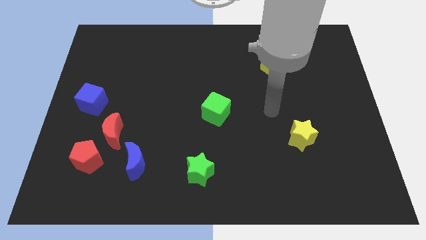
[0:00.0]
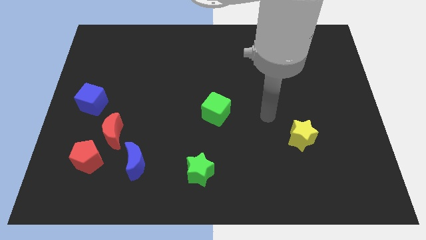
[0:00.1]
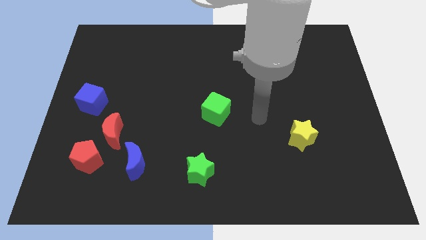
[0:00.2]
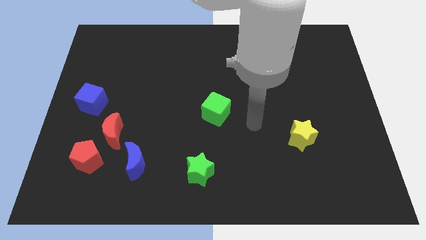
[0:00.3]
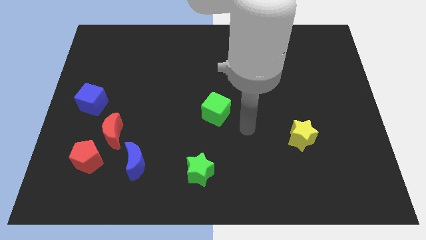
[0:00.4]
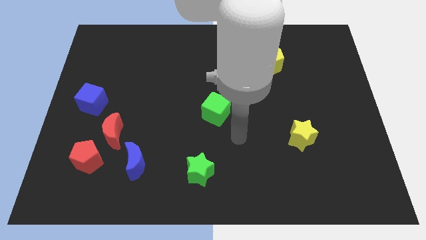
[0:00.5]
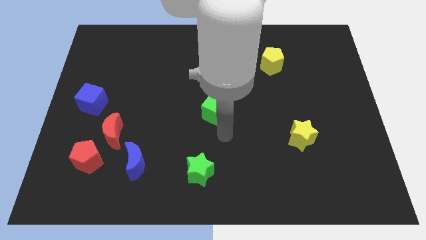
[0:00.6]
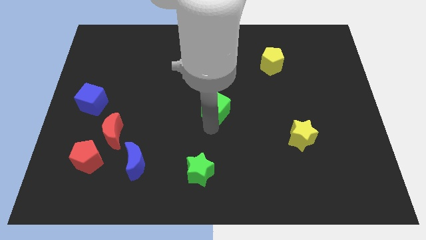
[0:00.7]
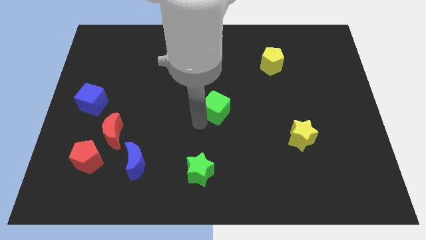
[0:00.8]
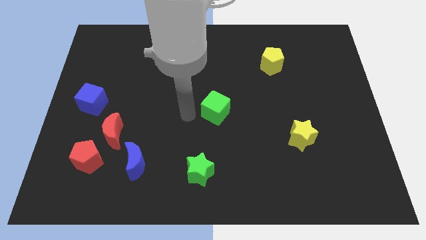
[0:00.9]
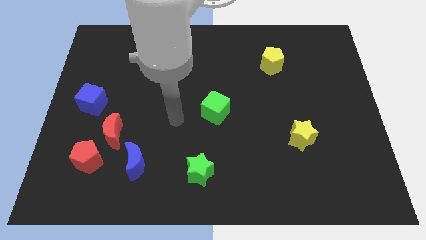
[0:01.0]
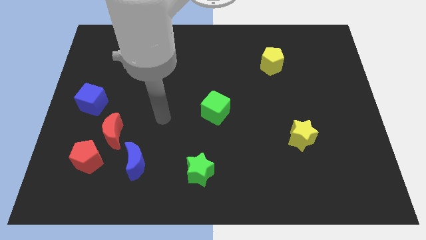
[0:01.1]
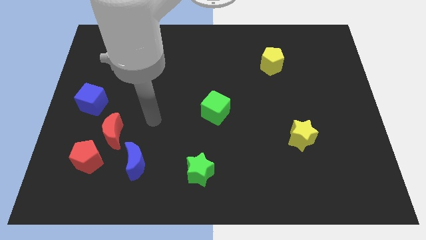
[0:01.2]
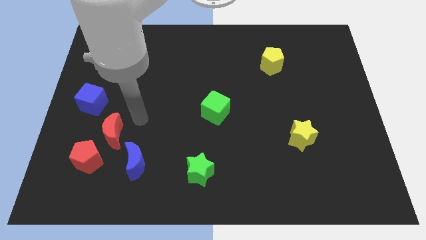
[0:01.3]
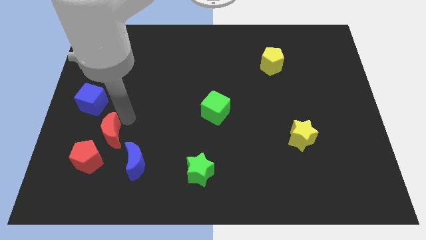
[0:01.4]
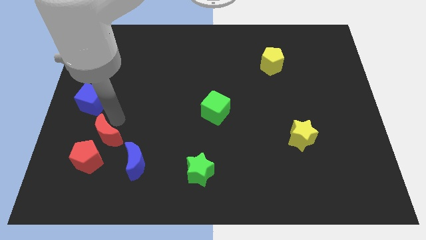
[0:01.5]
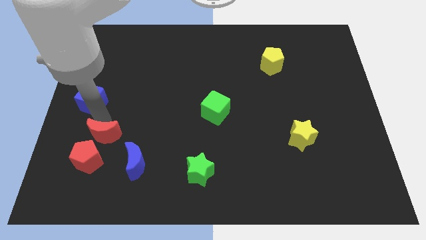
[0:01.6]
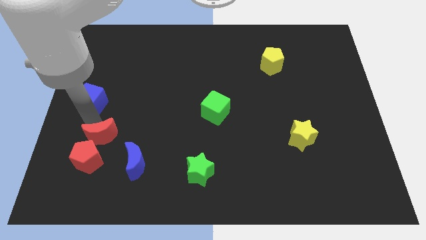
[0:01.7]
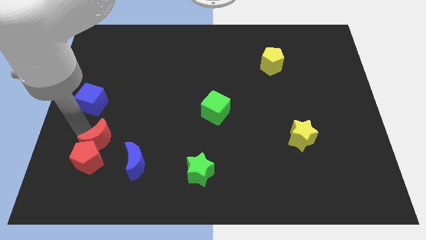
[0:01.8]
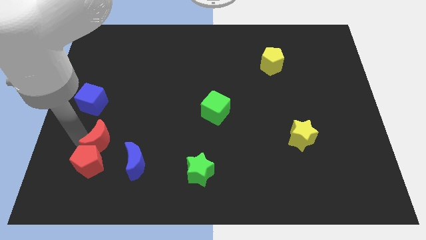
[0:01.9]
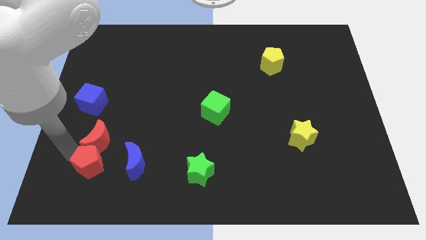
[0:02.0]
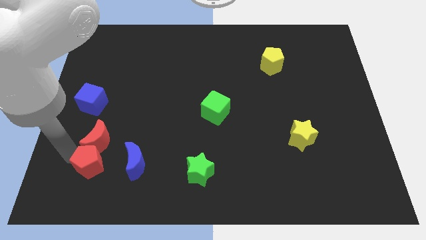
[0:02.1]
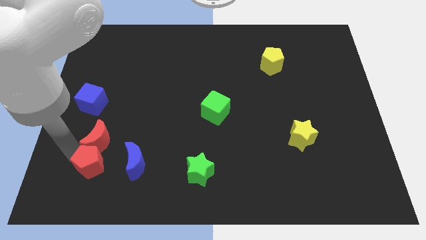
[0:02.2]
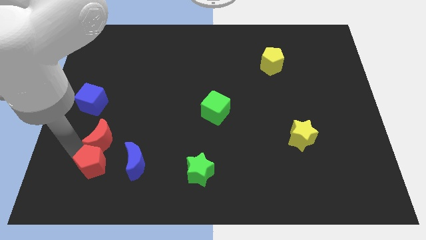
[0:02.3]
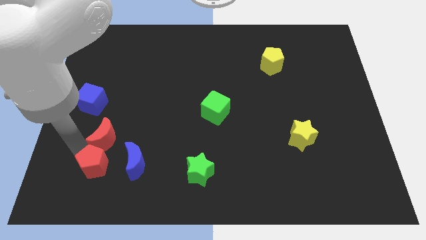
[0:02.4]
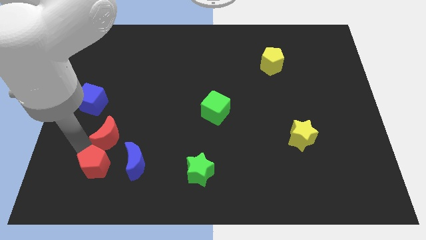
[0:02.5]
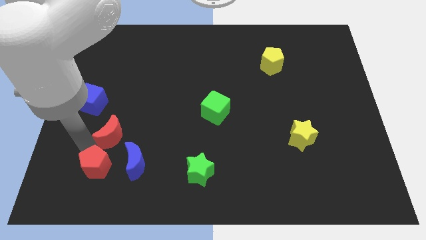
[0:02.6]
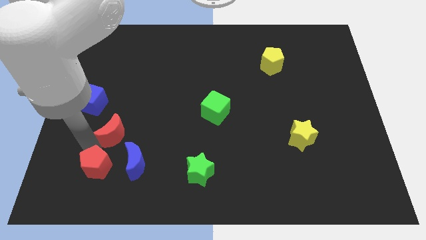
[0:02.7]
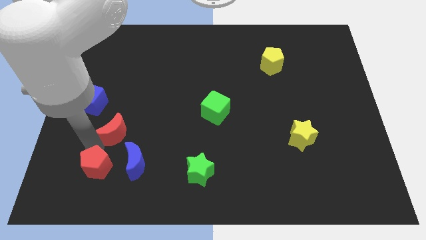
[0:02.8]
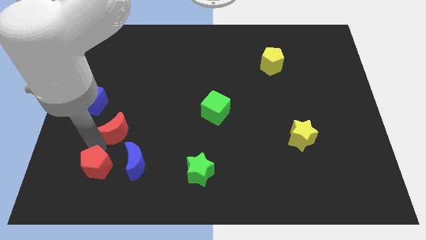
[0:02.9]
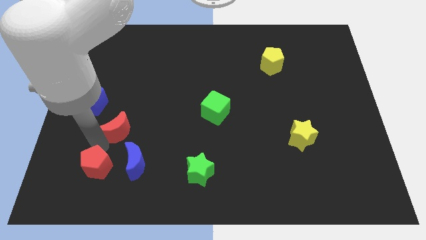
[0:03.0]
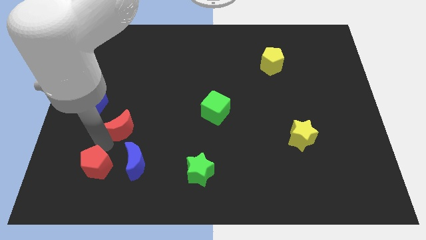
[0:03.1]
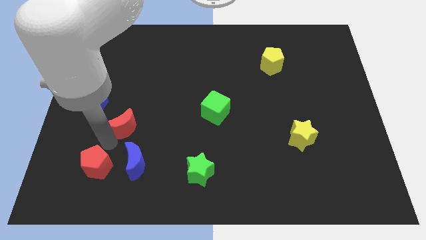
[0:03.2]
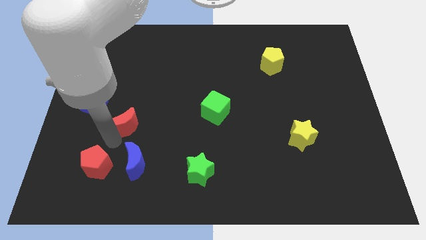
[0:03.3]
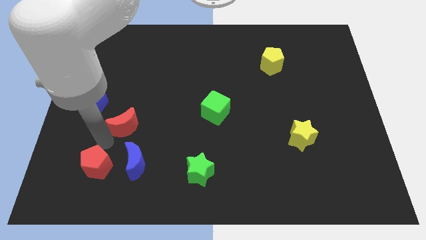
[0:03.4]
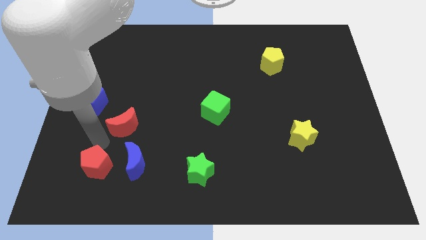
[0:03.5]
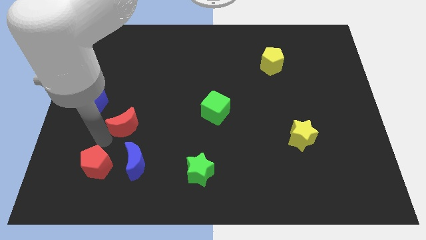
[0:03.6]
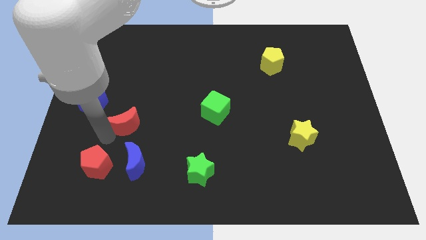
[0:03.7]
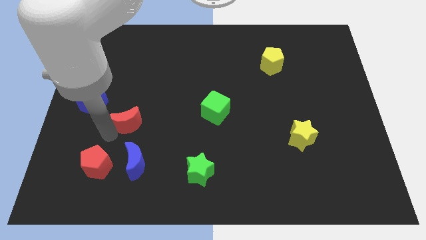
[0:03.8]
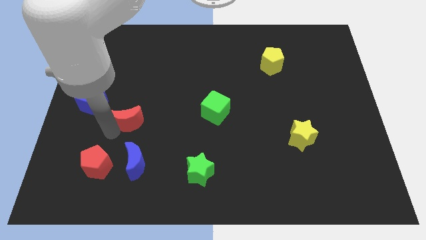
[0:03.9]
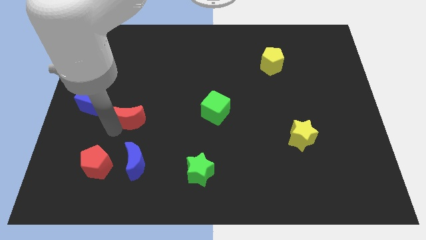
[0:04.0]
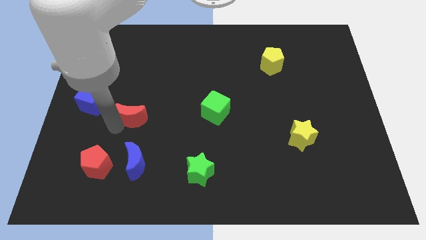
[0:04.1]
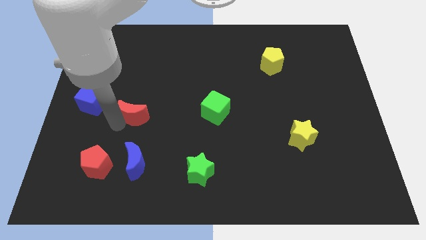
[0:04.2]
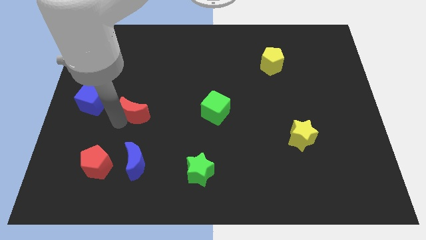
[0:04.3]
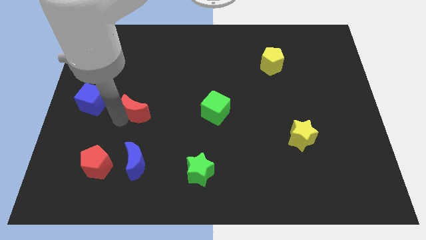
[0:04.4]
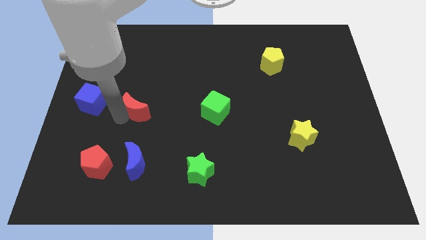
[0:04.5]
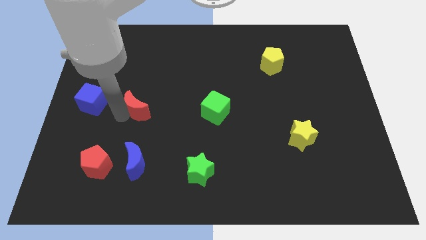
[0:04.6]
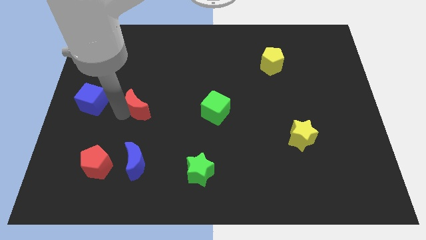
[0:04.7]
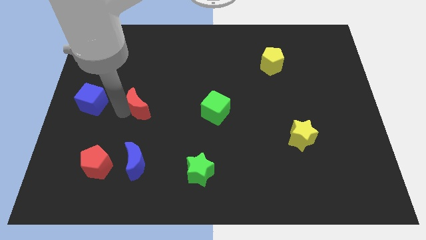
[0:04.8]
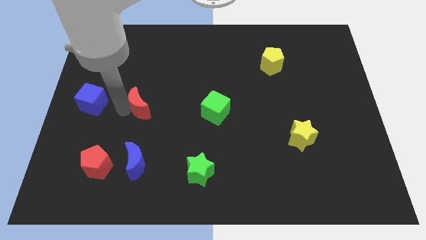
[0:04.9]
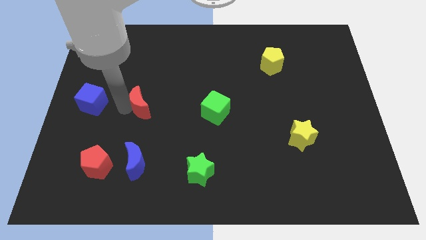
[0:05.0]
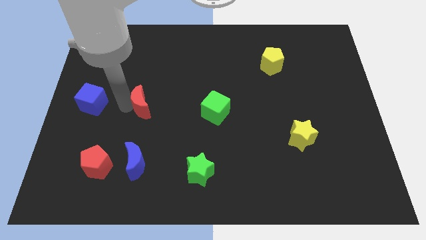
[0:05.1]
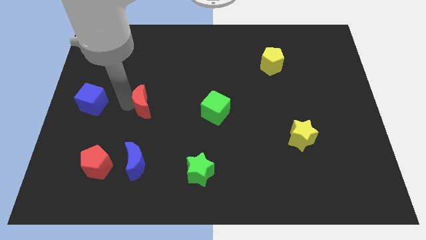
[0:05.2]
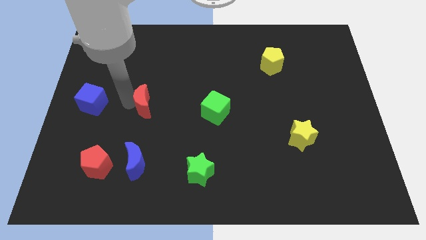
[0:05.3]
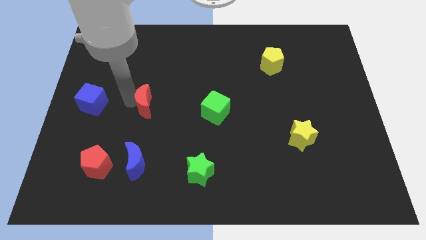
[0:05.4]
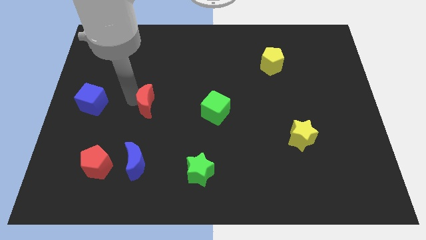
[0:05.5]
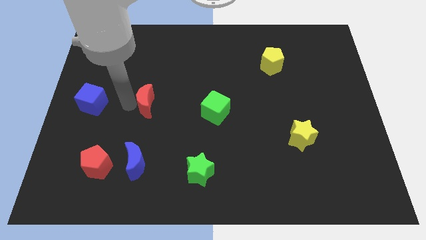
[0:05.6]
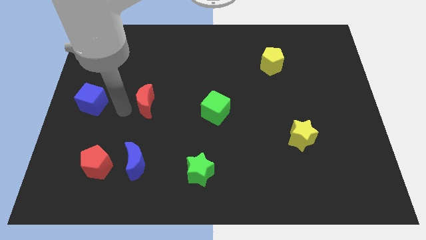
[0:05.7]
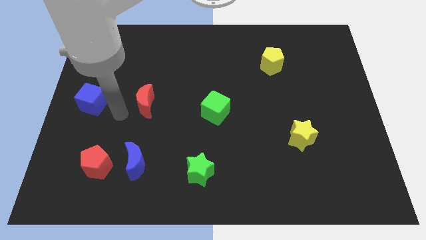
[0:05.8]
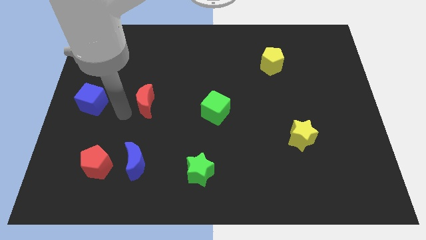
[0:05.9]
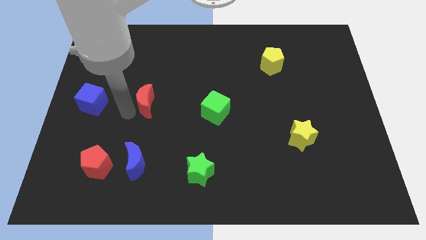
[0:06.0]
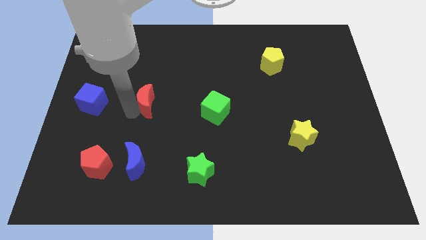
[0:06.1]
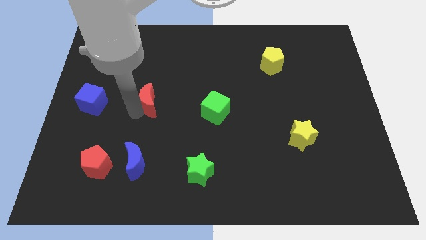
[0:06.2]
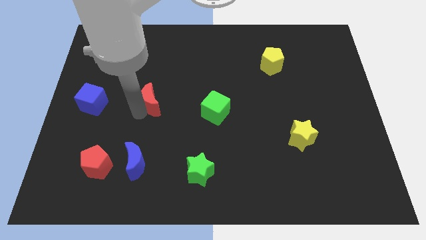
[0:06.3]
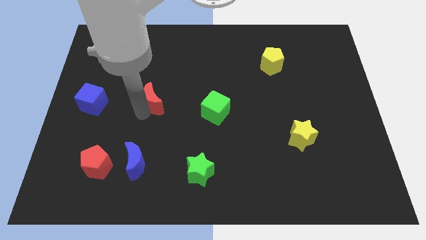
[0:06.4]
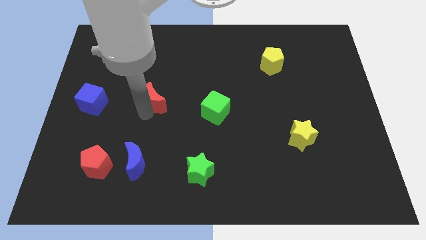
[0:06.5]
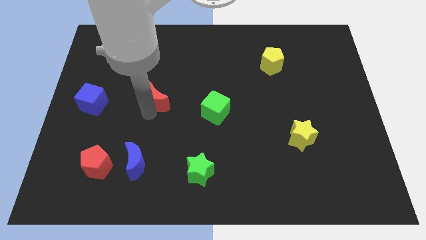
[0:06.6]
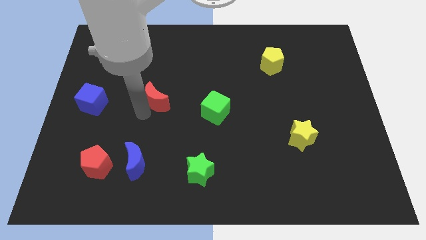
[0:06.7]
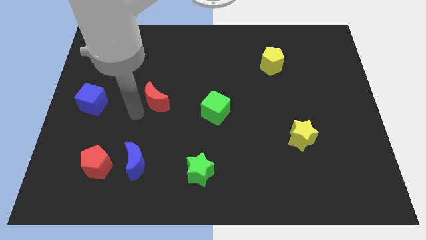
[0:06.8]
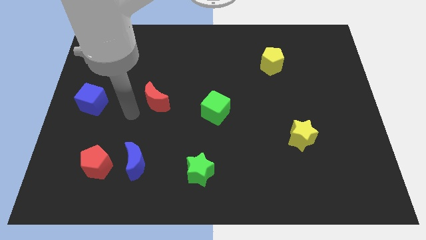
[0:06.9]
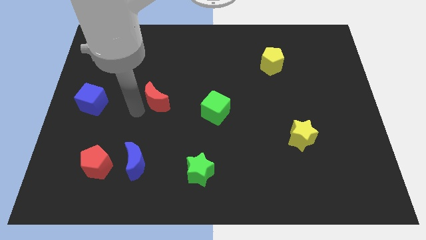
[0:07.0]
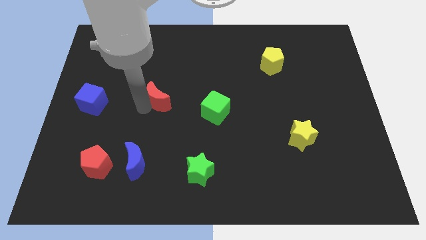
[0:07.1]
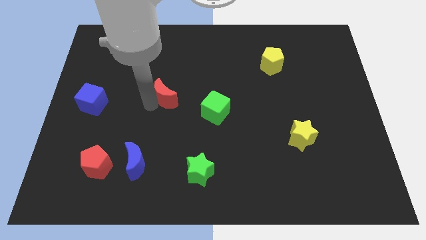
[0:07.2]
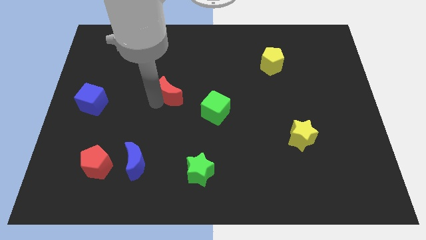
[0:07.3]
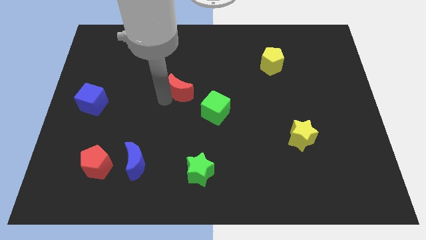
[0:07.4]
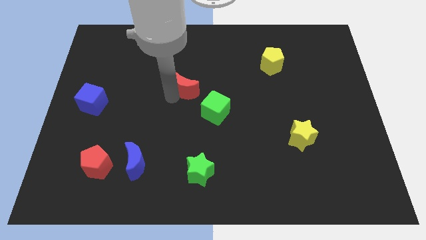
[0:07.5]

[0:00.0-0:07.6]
move the red moon diagonally upwards and to the right

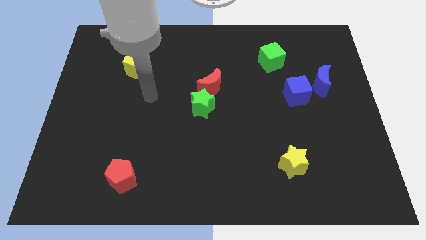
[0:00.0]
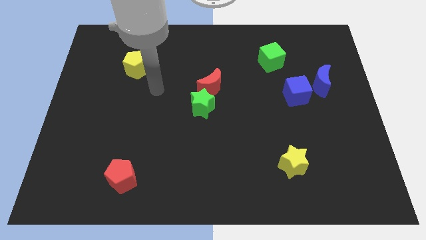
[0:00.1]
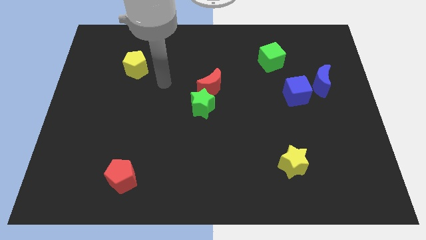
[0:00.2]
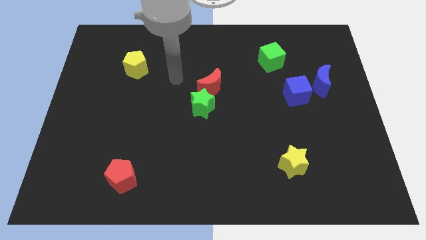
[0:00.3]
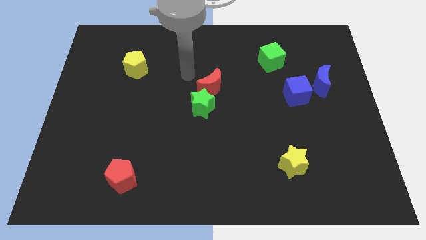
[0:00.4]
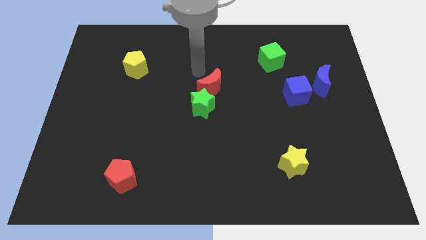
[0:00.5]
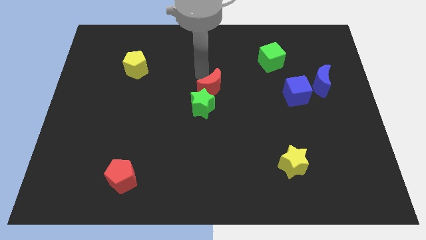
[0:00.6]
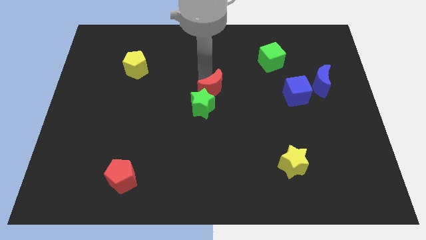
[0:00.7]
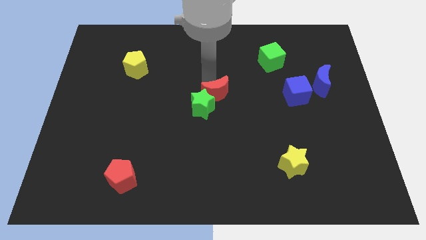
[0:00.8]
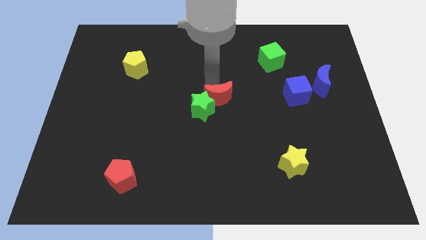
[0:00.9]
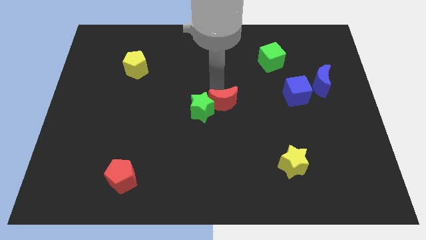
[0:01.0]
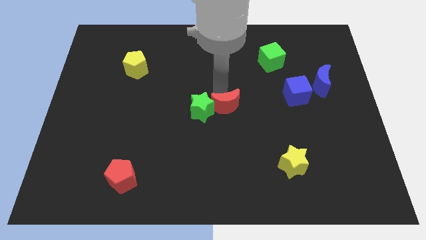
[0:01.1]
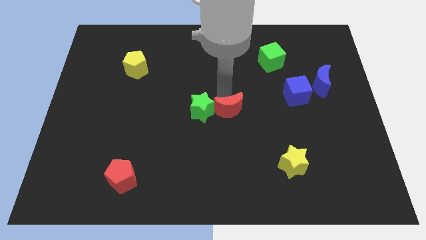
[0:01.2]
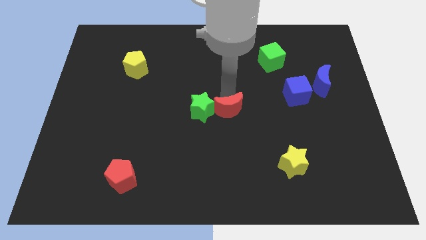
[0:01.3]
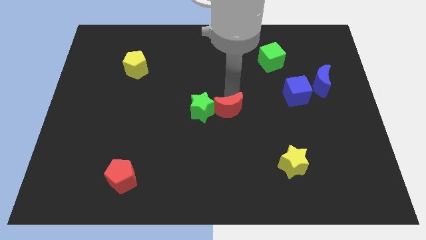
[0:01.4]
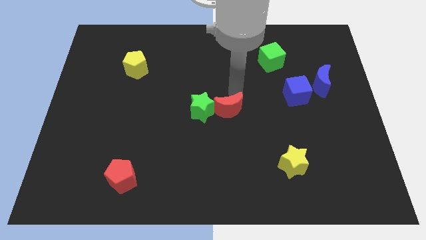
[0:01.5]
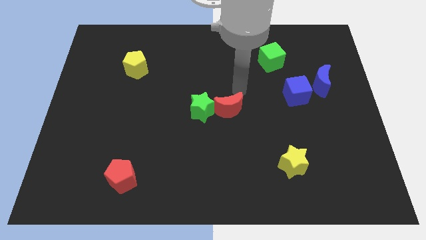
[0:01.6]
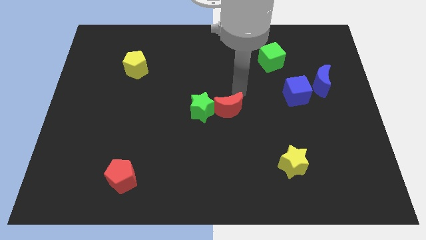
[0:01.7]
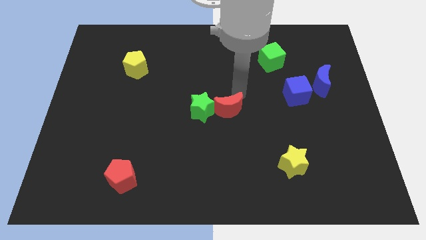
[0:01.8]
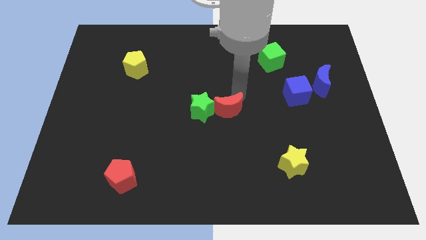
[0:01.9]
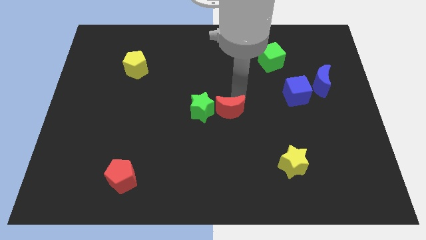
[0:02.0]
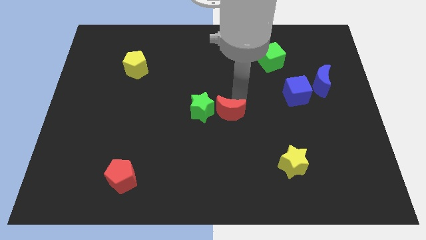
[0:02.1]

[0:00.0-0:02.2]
move the red moon down a bit
